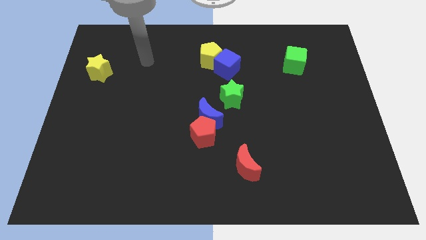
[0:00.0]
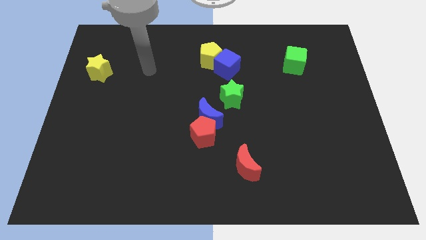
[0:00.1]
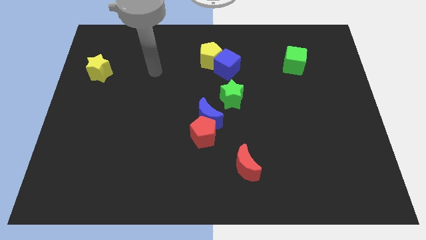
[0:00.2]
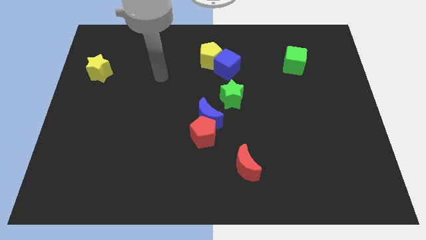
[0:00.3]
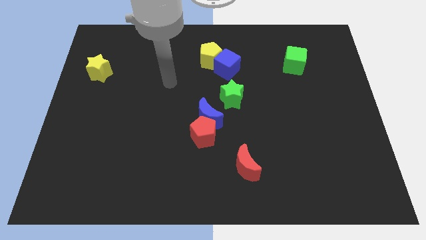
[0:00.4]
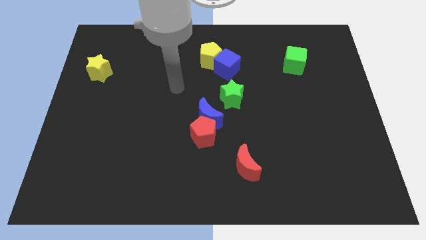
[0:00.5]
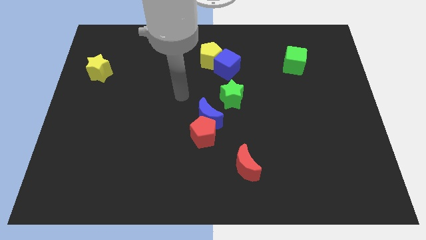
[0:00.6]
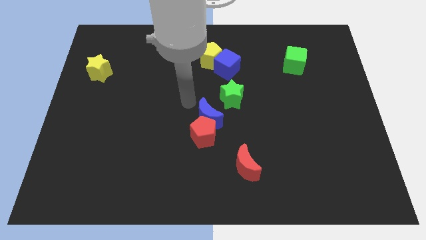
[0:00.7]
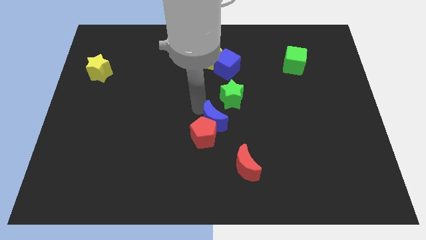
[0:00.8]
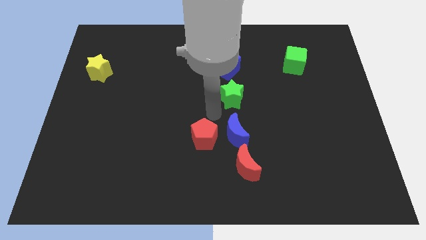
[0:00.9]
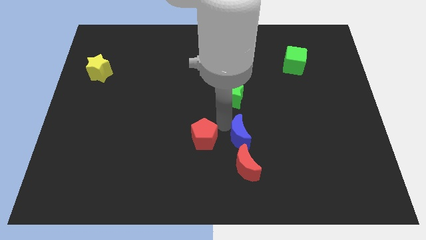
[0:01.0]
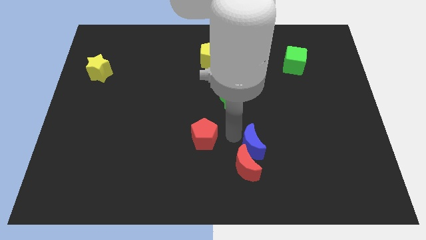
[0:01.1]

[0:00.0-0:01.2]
separate the red pentagon from the blue moon

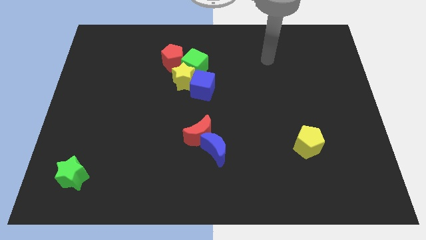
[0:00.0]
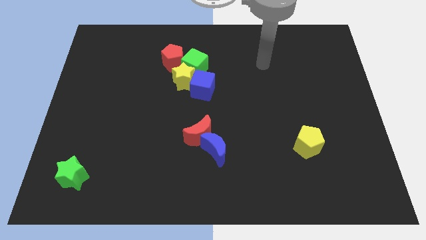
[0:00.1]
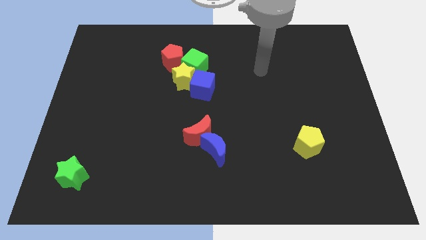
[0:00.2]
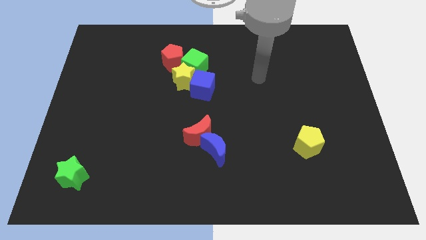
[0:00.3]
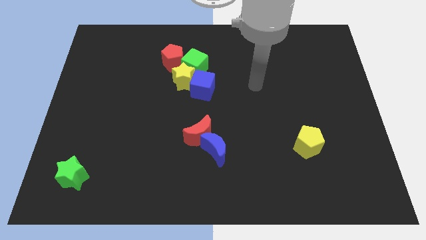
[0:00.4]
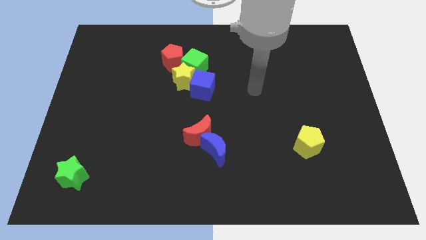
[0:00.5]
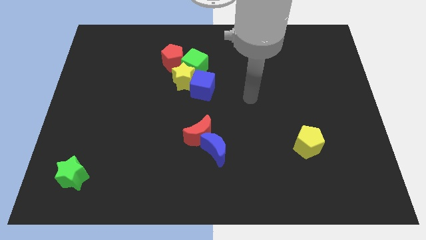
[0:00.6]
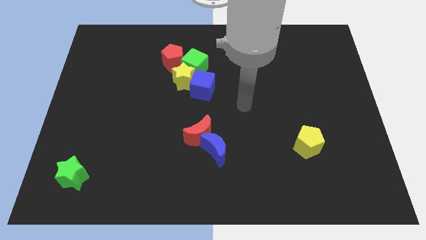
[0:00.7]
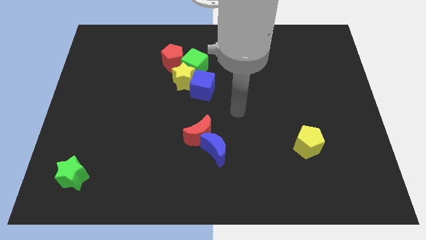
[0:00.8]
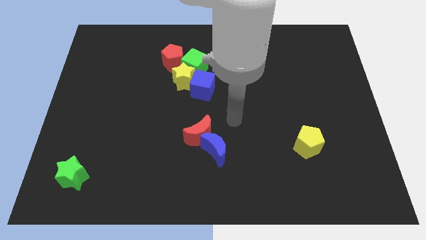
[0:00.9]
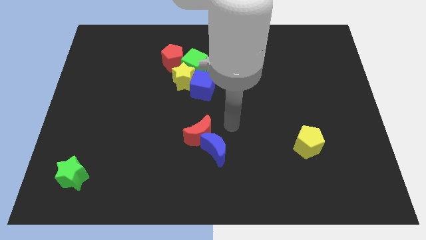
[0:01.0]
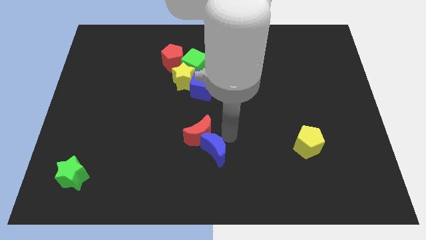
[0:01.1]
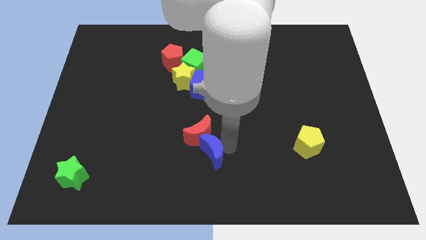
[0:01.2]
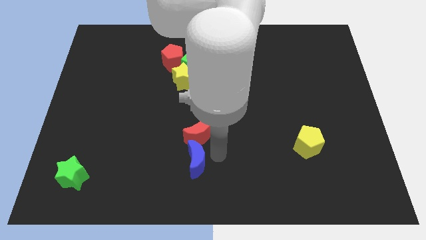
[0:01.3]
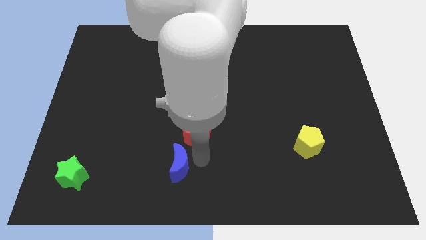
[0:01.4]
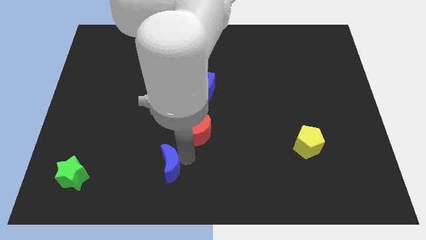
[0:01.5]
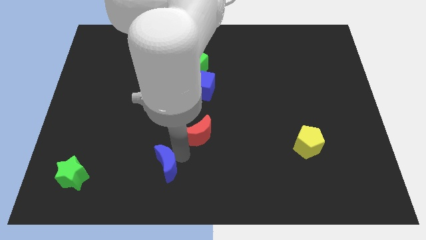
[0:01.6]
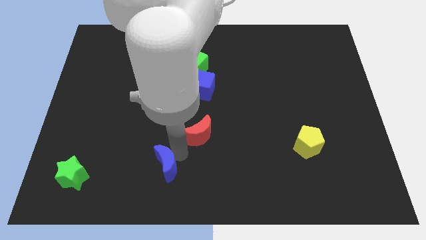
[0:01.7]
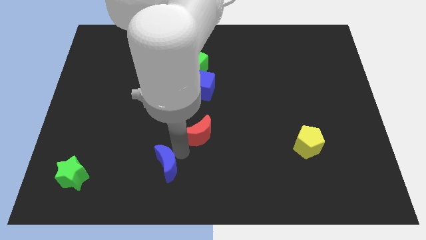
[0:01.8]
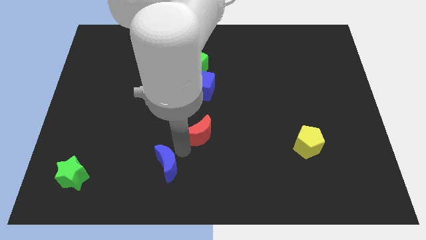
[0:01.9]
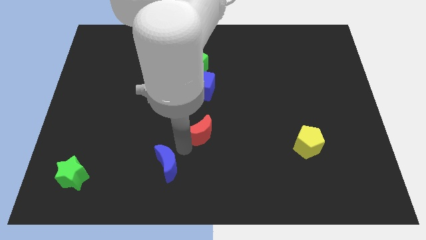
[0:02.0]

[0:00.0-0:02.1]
pull the red moon apart from the blue moon

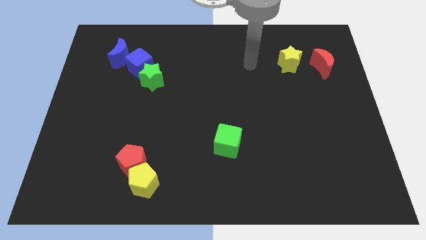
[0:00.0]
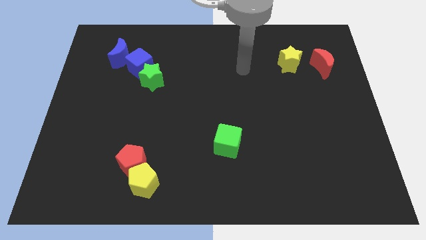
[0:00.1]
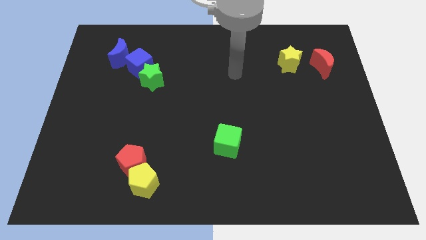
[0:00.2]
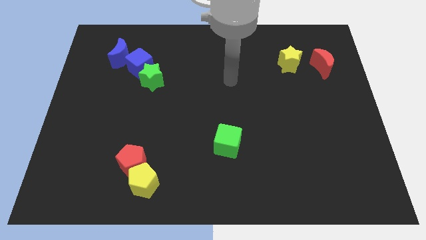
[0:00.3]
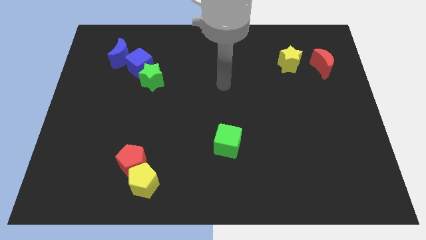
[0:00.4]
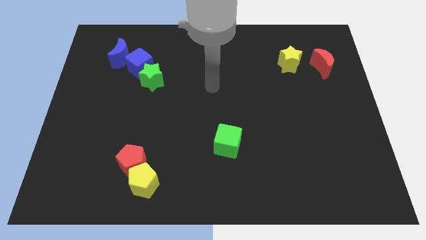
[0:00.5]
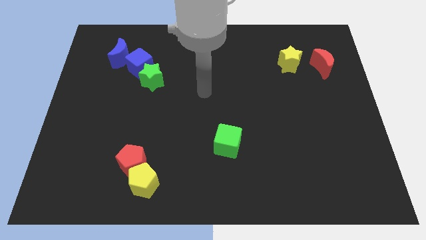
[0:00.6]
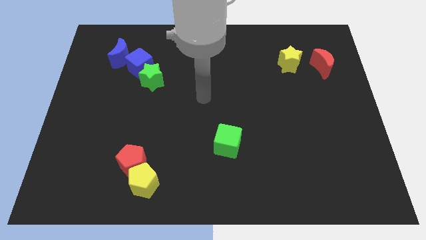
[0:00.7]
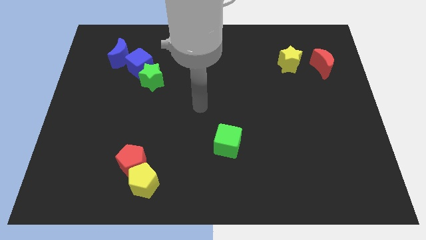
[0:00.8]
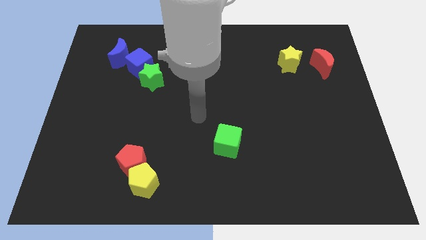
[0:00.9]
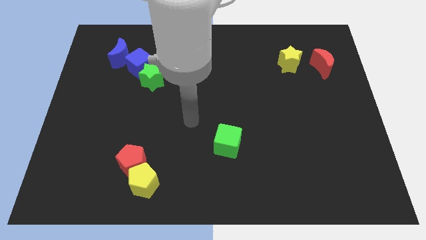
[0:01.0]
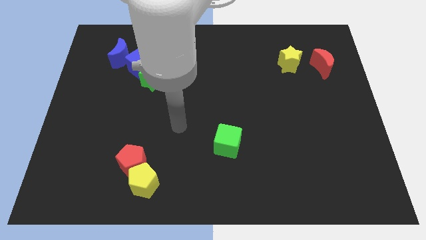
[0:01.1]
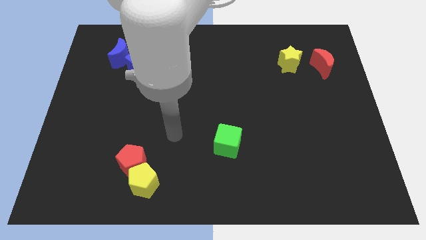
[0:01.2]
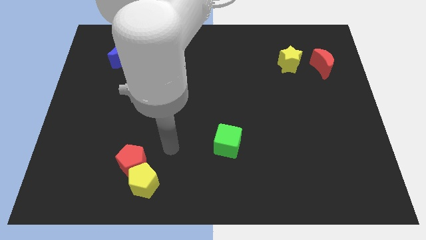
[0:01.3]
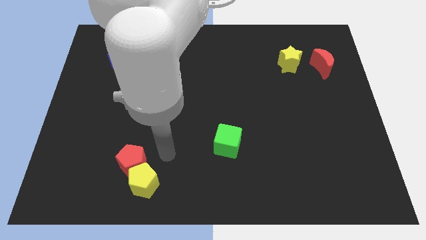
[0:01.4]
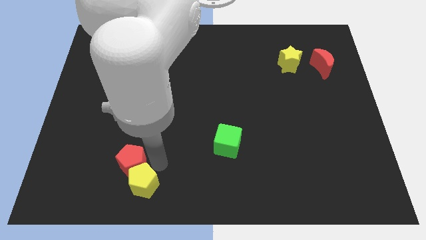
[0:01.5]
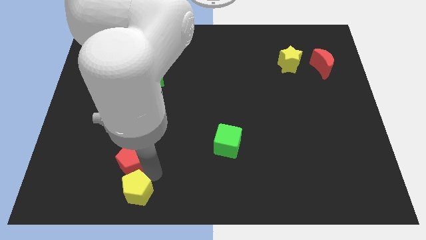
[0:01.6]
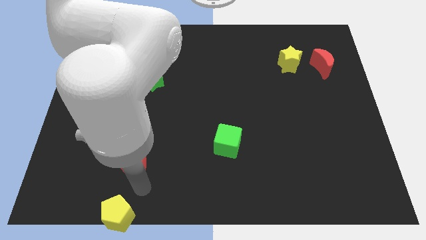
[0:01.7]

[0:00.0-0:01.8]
move the red pentagon away from the yellow pentagon

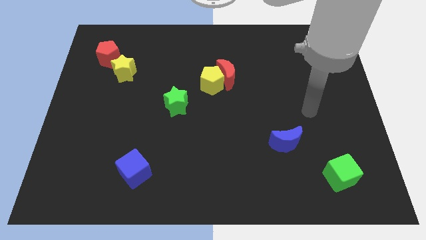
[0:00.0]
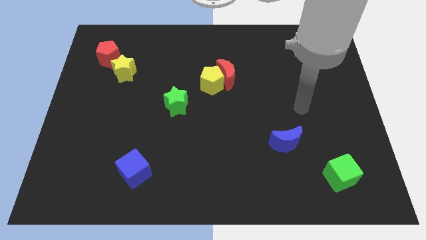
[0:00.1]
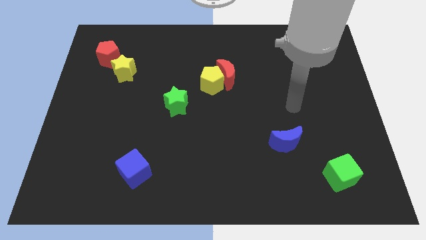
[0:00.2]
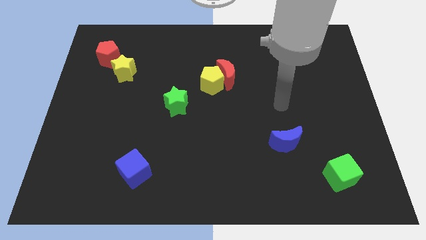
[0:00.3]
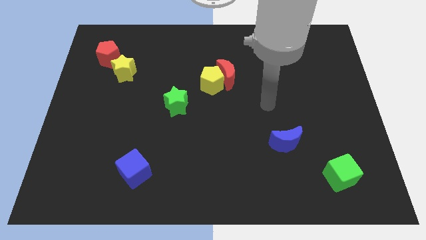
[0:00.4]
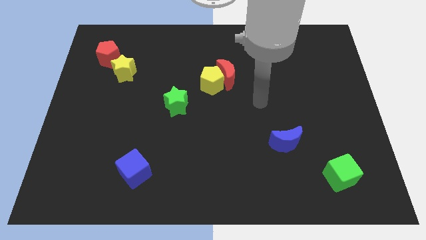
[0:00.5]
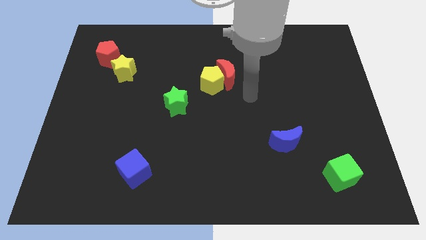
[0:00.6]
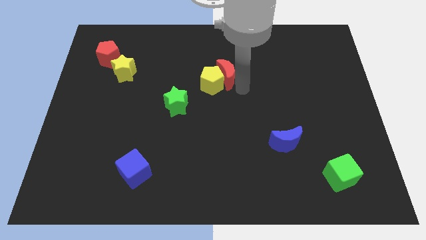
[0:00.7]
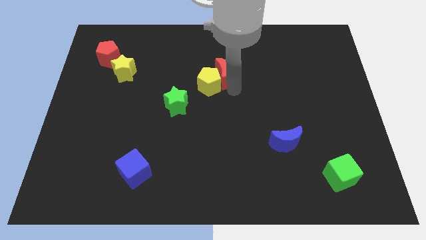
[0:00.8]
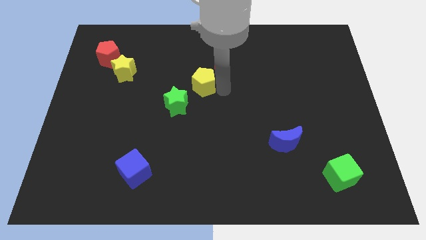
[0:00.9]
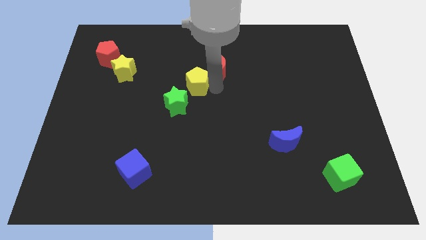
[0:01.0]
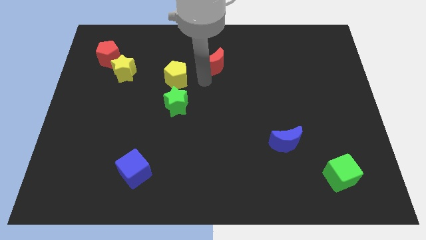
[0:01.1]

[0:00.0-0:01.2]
move the red moon away from the yellow pentagon

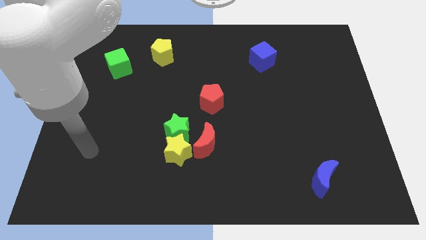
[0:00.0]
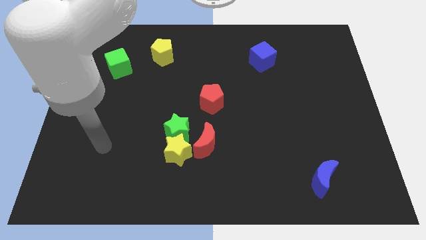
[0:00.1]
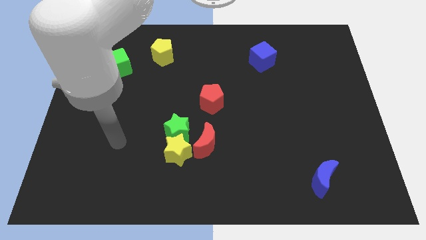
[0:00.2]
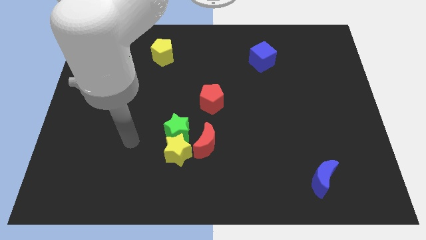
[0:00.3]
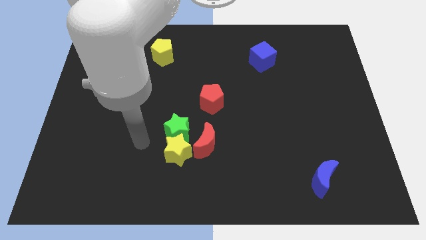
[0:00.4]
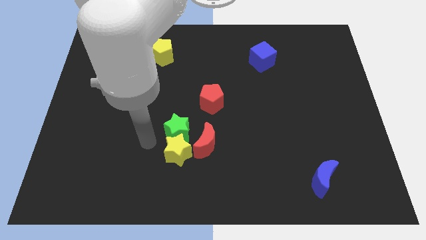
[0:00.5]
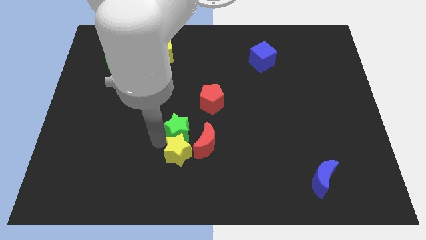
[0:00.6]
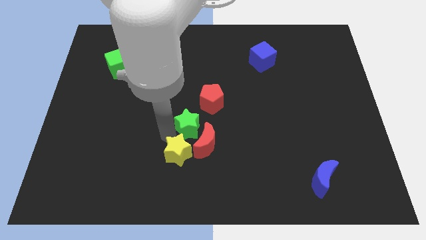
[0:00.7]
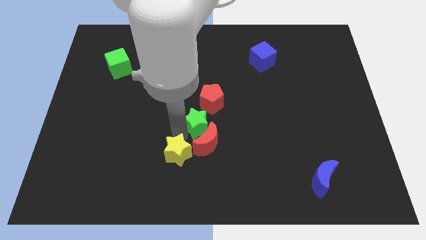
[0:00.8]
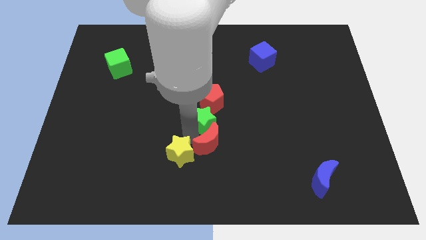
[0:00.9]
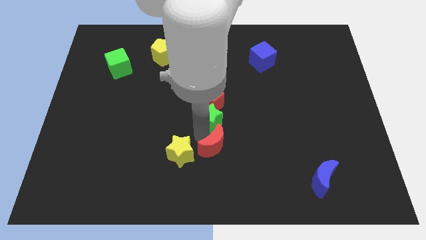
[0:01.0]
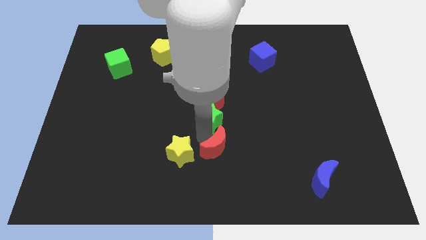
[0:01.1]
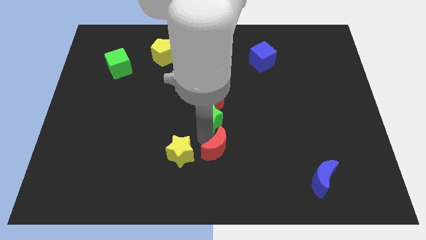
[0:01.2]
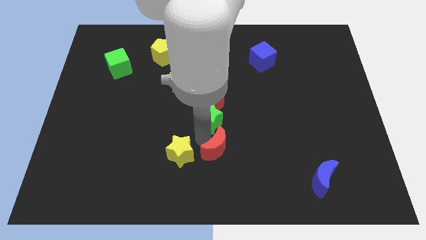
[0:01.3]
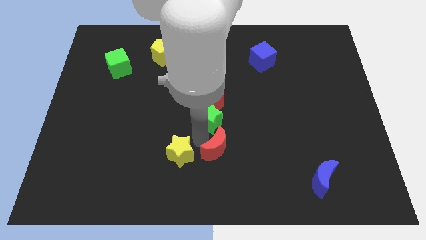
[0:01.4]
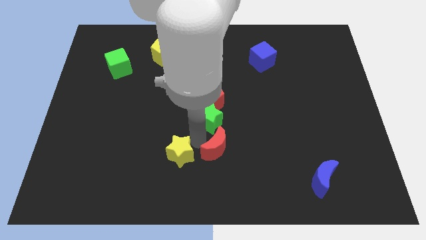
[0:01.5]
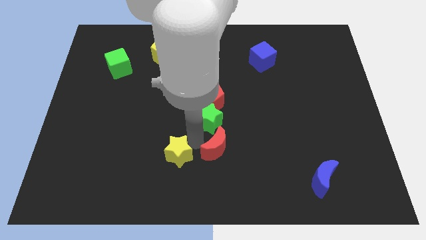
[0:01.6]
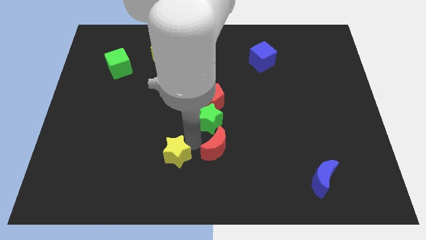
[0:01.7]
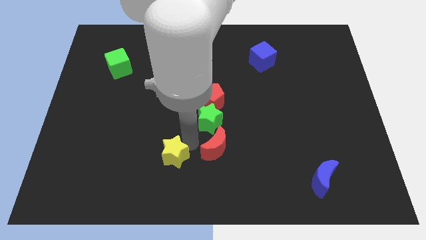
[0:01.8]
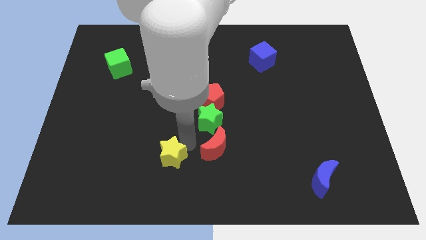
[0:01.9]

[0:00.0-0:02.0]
pull the yellow star apart from the green star and red moon

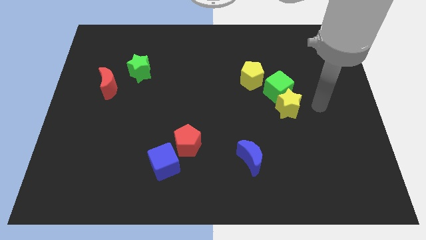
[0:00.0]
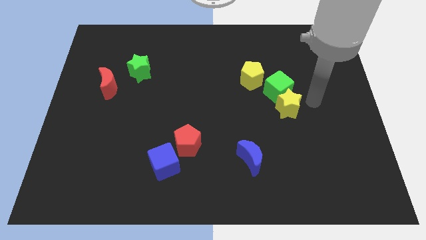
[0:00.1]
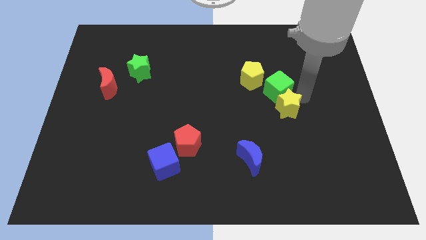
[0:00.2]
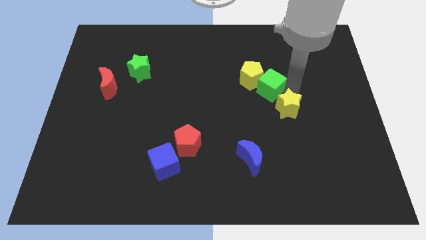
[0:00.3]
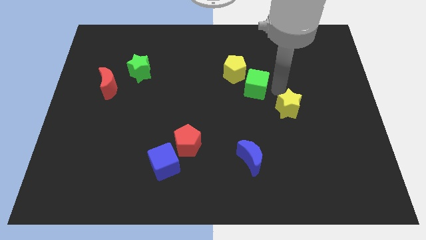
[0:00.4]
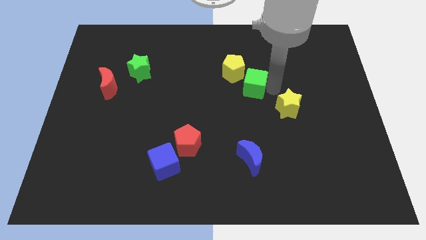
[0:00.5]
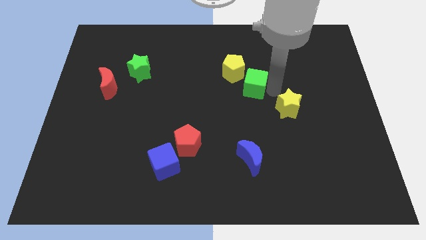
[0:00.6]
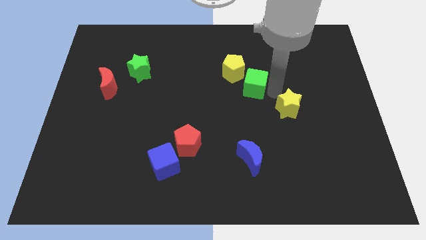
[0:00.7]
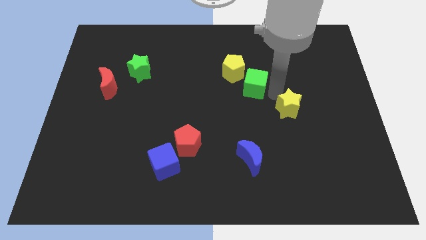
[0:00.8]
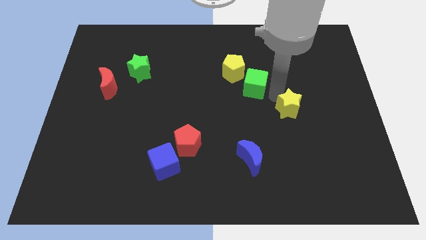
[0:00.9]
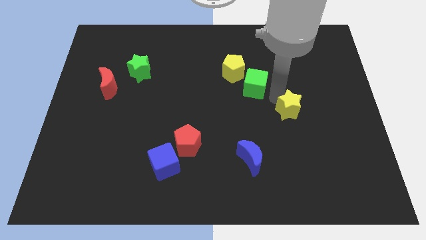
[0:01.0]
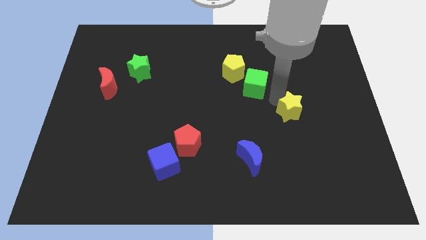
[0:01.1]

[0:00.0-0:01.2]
separate the yellow star from the green cube
